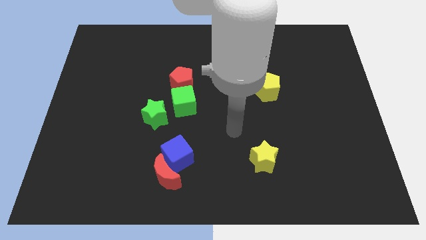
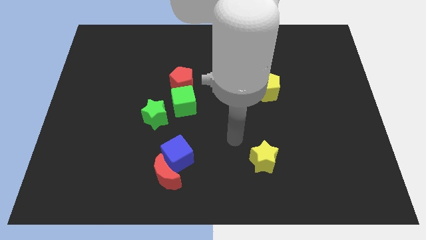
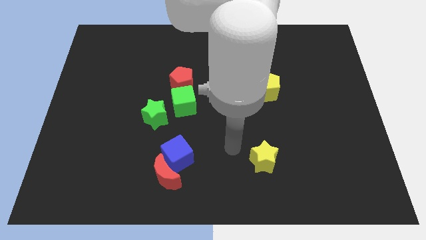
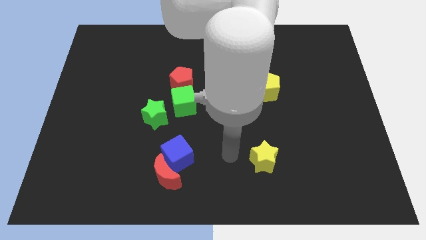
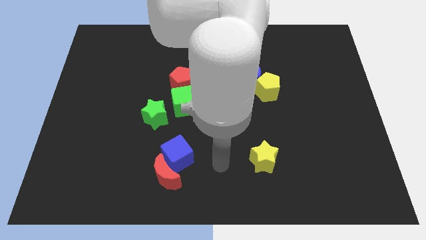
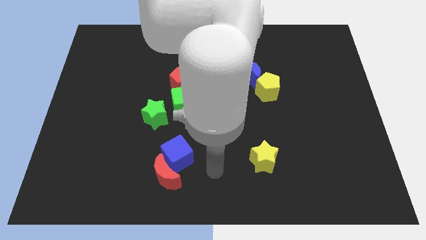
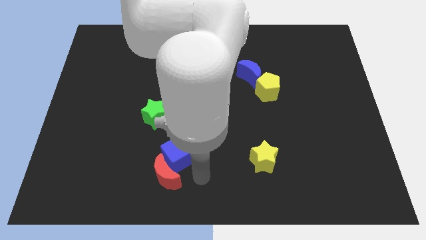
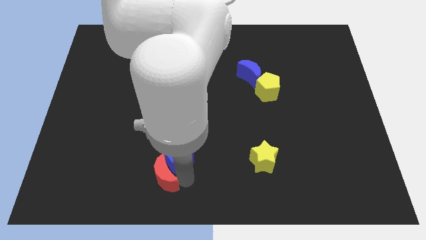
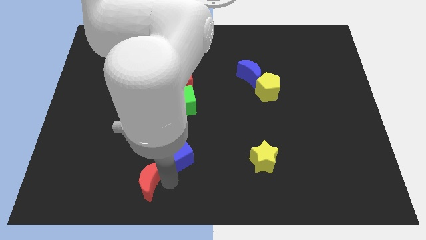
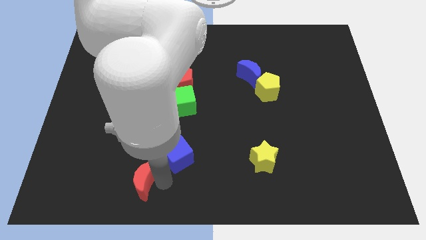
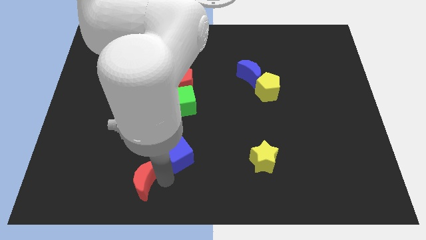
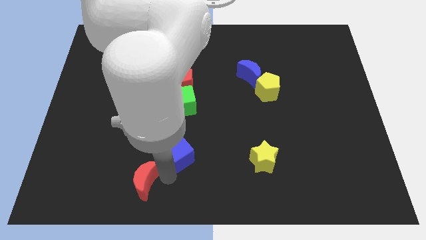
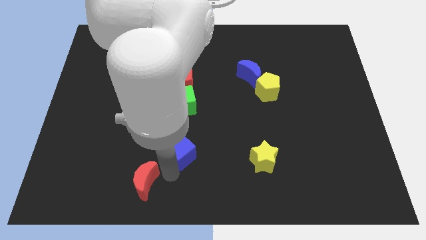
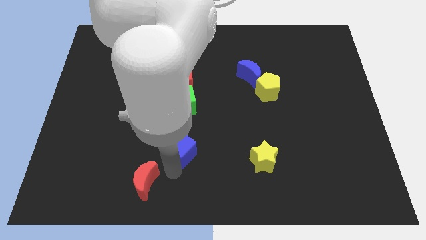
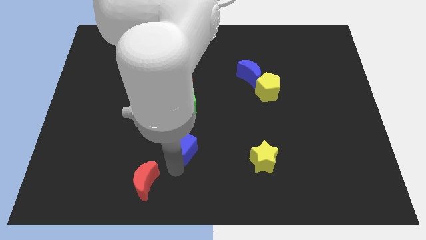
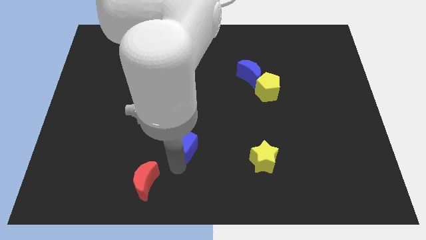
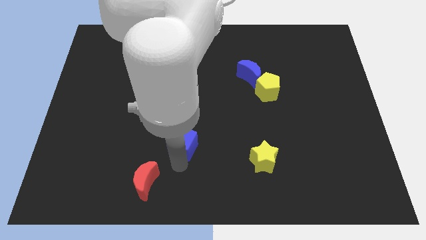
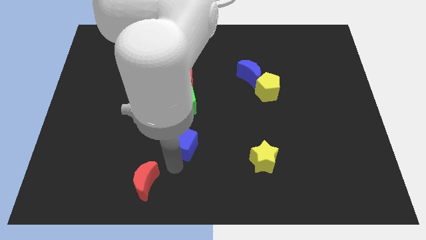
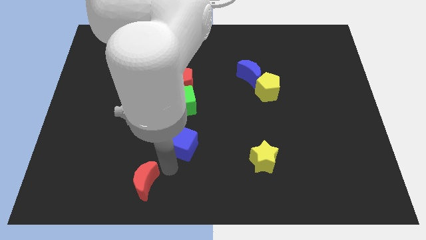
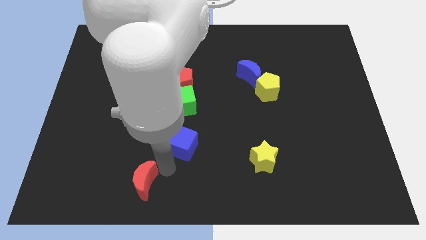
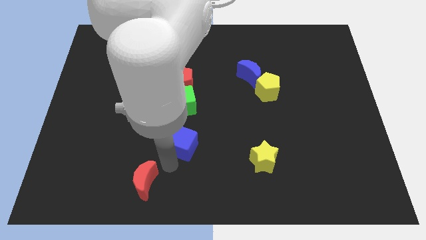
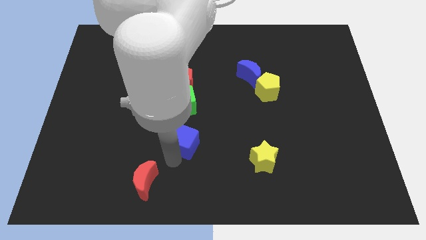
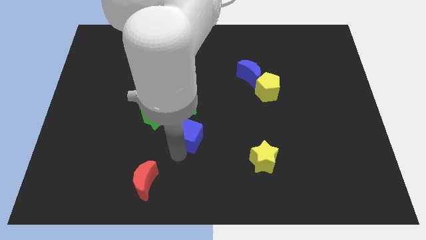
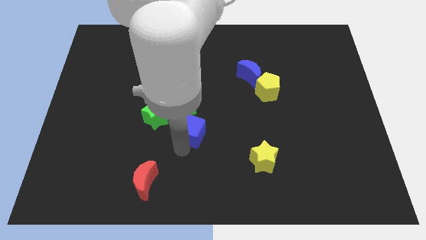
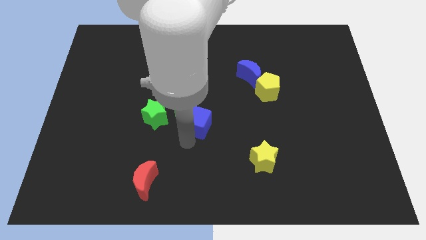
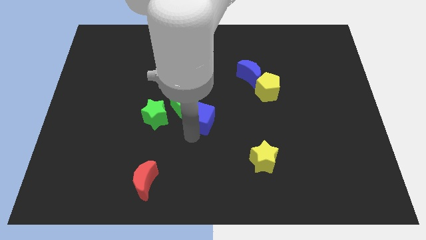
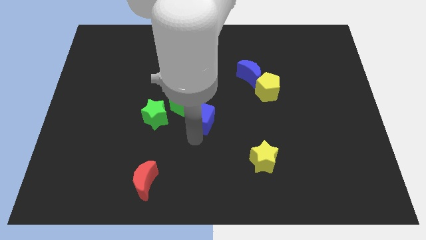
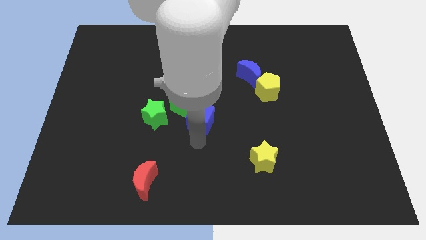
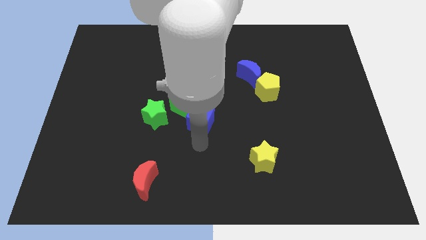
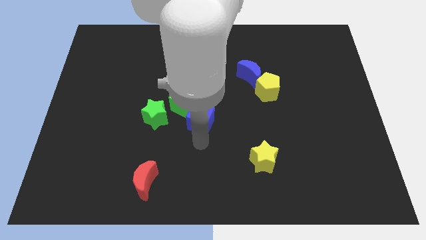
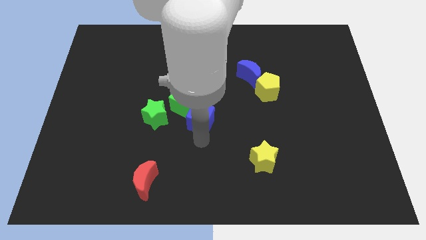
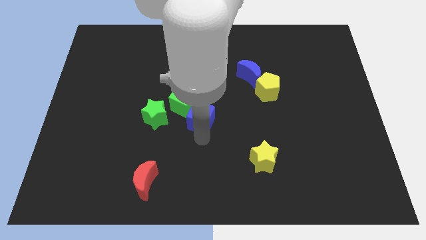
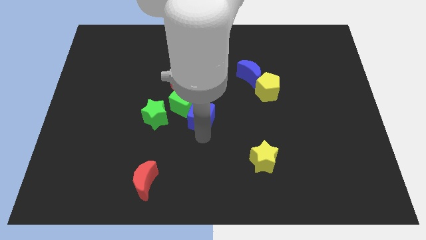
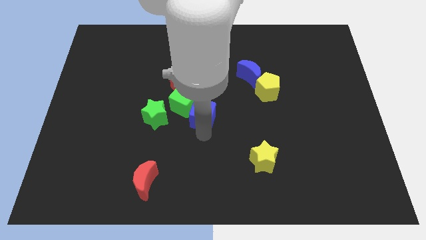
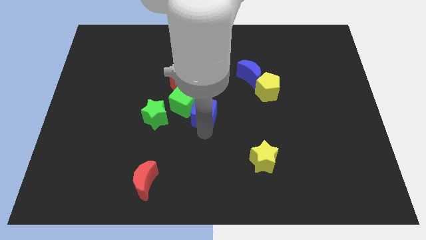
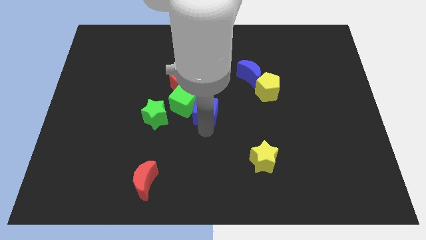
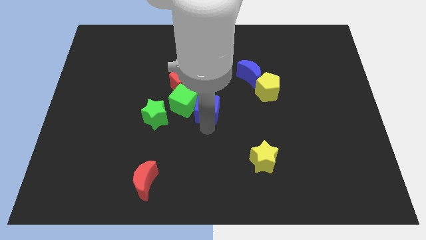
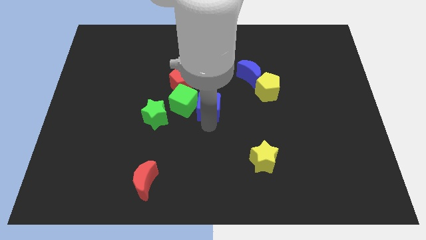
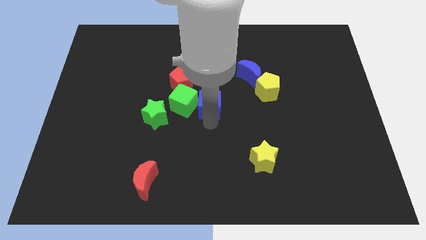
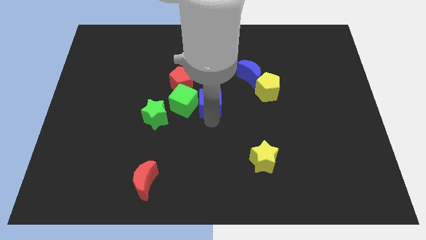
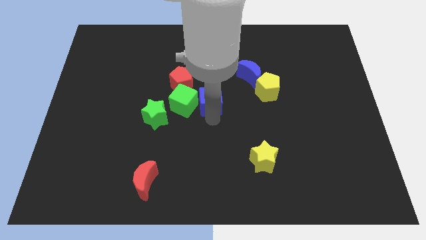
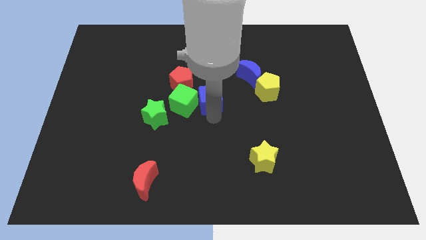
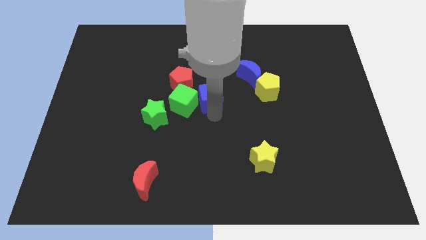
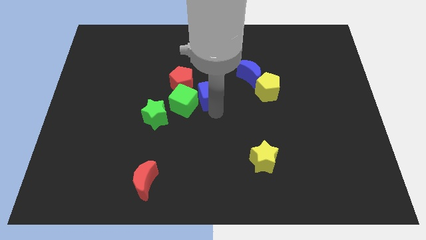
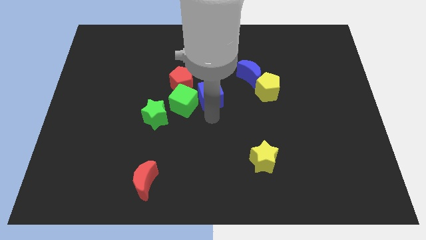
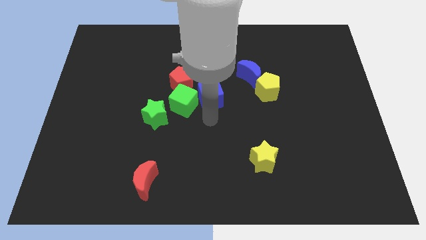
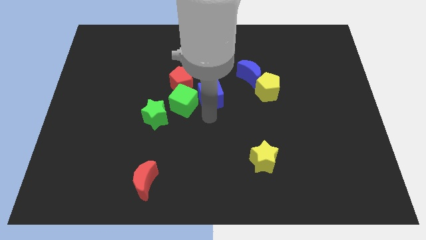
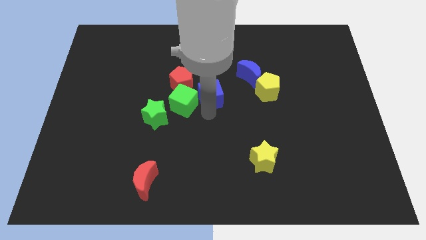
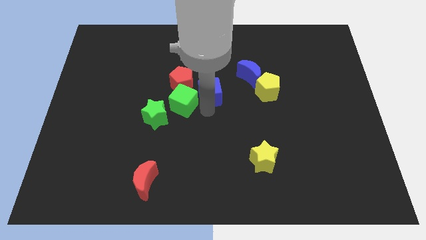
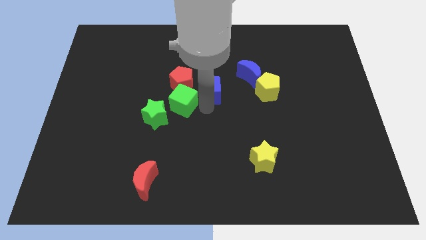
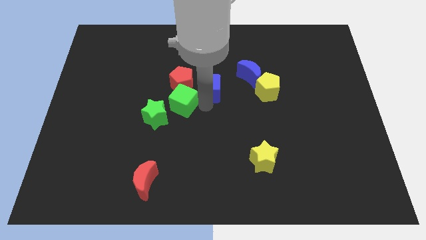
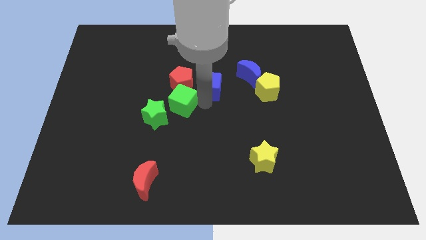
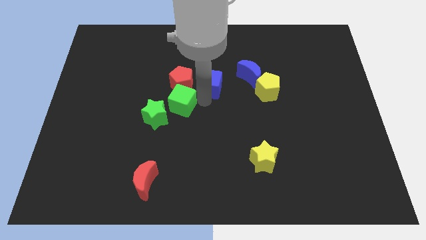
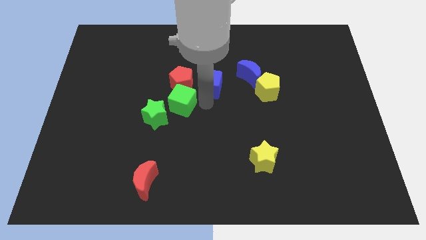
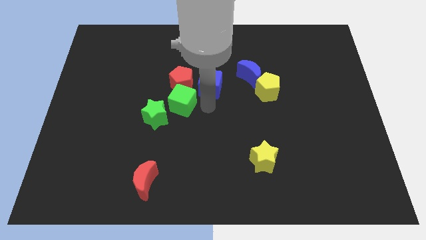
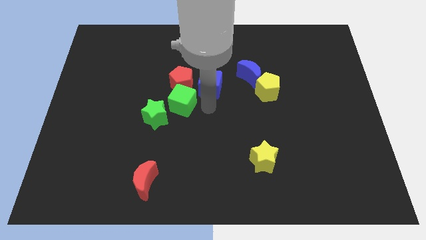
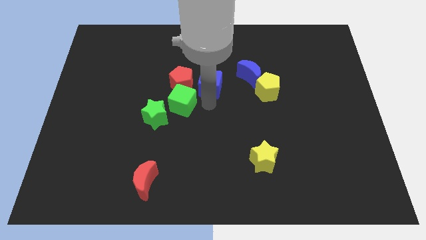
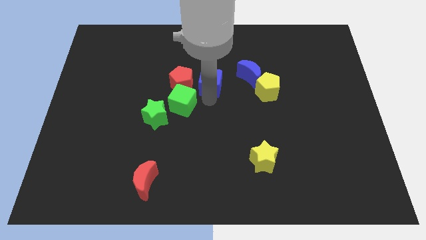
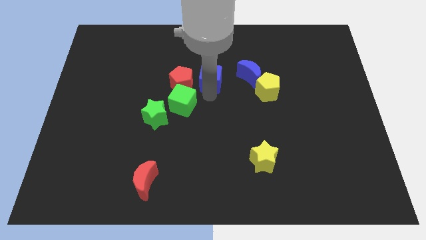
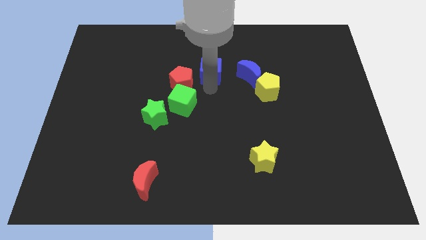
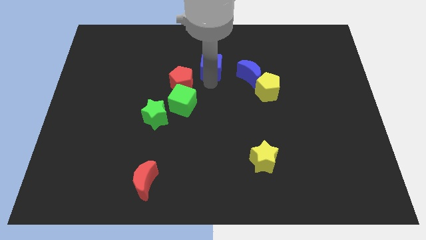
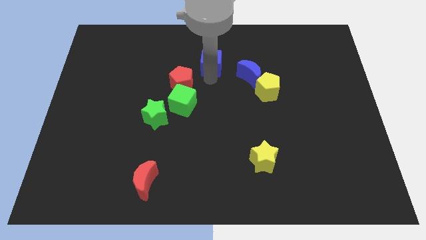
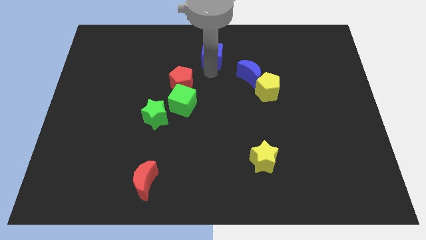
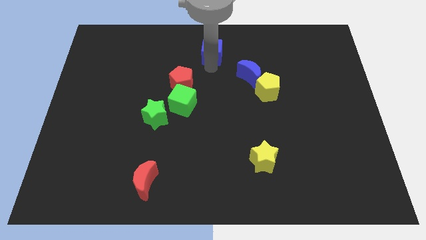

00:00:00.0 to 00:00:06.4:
put the blue cube to the top
